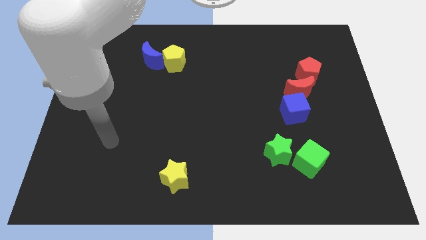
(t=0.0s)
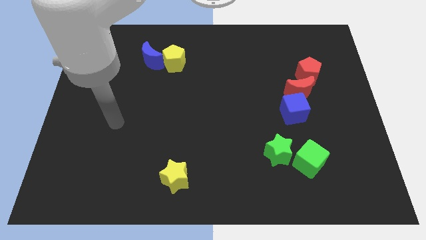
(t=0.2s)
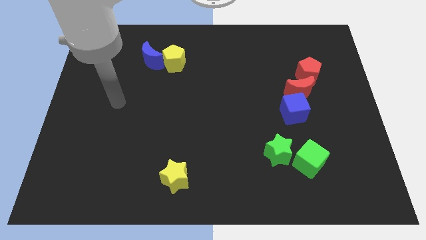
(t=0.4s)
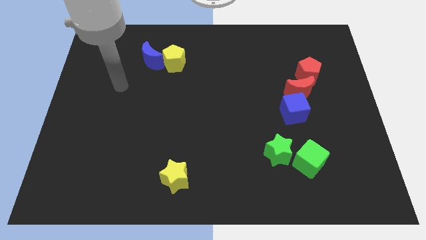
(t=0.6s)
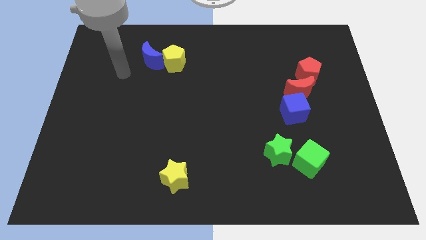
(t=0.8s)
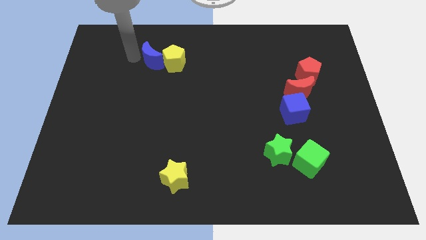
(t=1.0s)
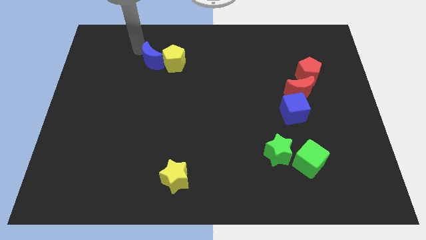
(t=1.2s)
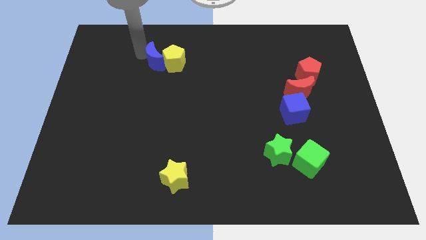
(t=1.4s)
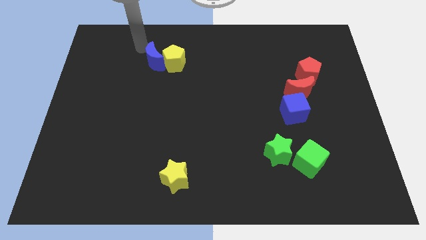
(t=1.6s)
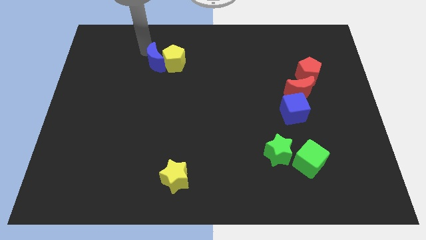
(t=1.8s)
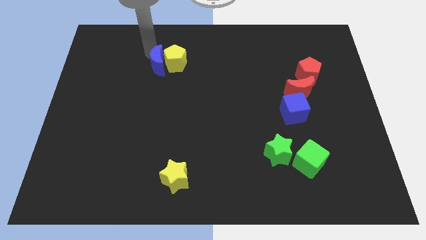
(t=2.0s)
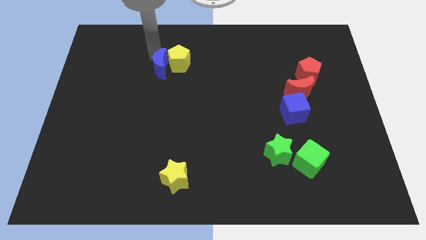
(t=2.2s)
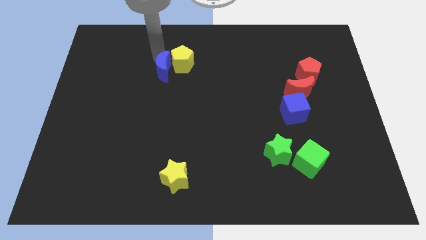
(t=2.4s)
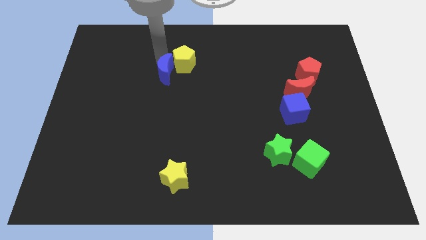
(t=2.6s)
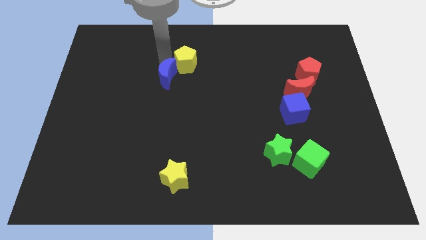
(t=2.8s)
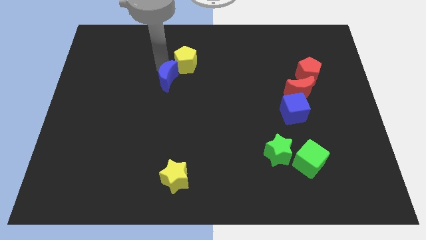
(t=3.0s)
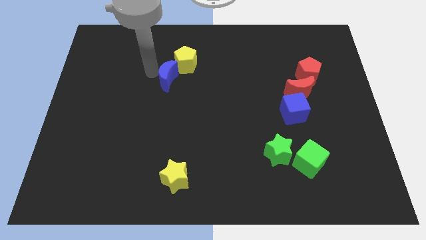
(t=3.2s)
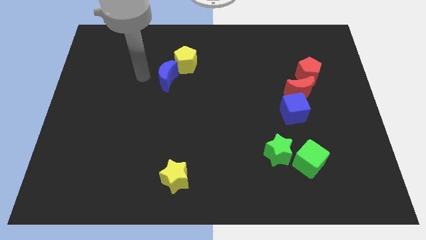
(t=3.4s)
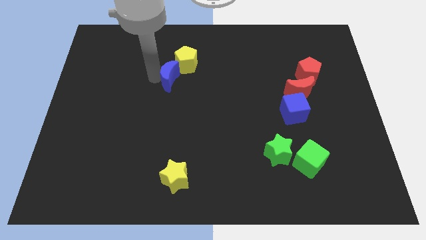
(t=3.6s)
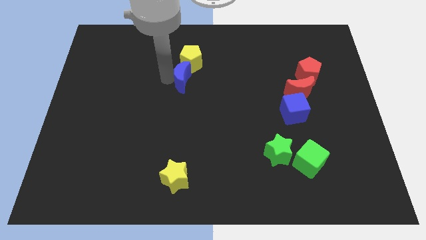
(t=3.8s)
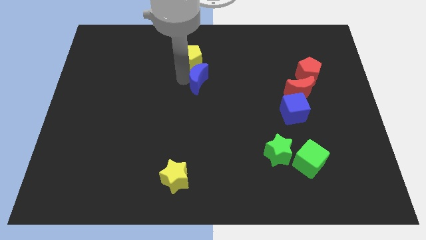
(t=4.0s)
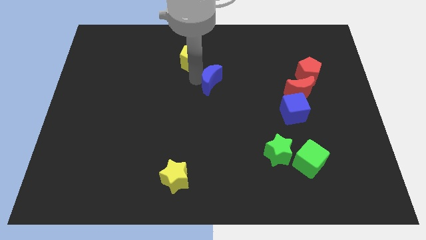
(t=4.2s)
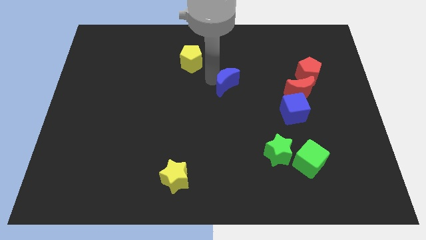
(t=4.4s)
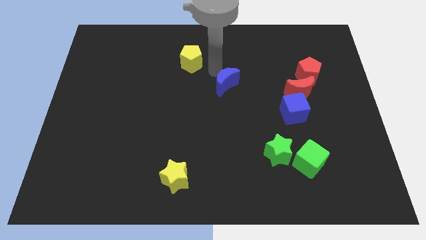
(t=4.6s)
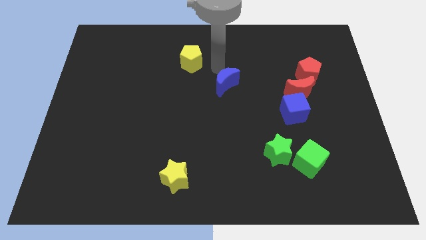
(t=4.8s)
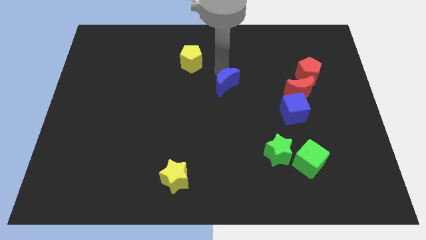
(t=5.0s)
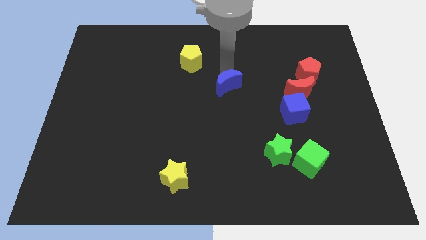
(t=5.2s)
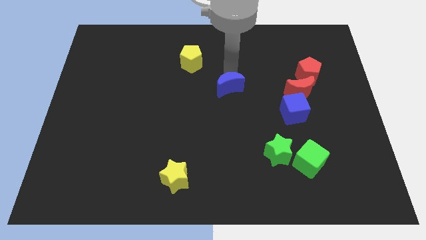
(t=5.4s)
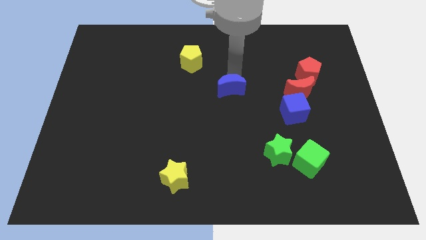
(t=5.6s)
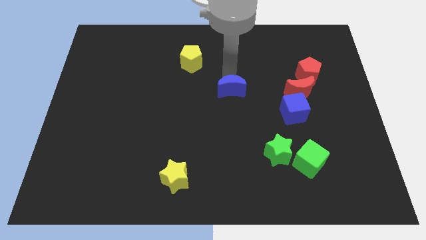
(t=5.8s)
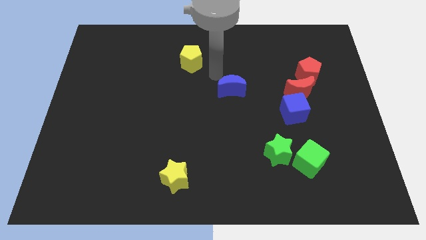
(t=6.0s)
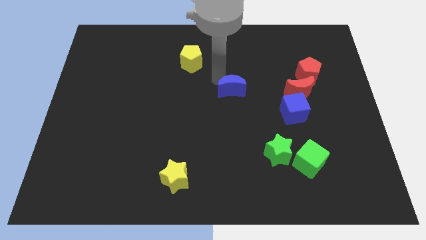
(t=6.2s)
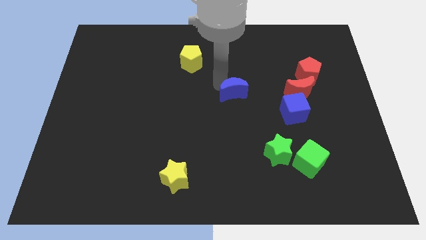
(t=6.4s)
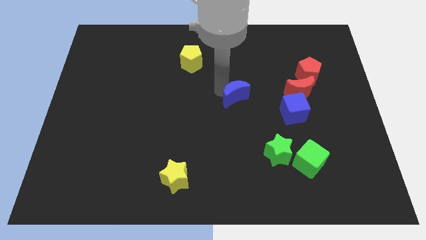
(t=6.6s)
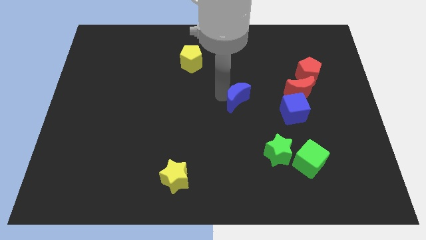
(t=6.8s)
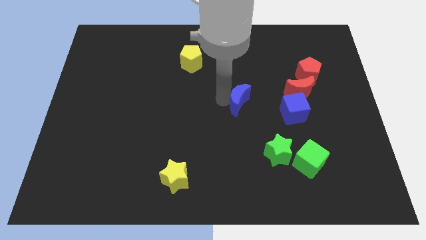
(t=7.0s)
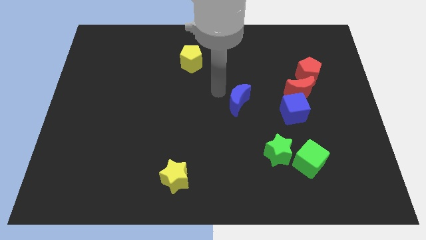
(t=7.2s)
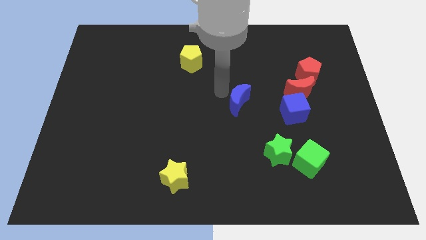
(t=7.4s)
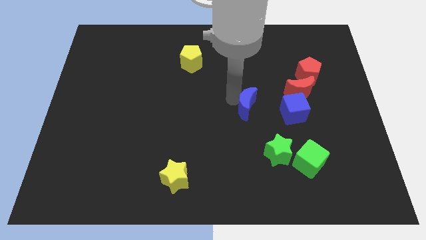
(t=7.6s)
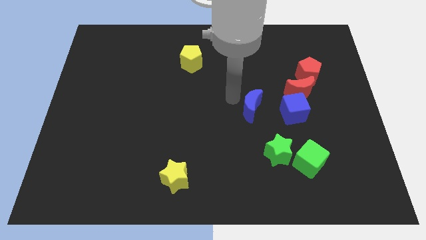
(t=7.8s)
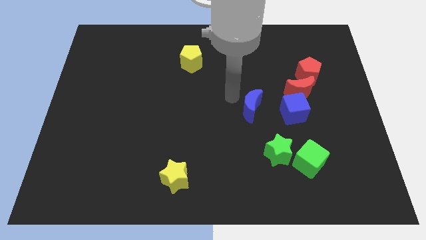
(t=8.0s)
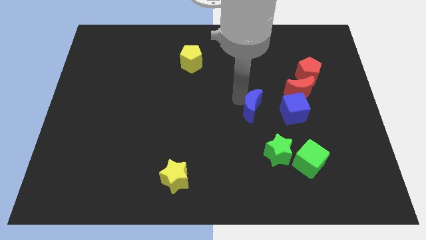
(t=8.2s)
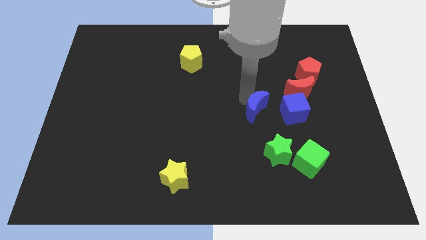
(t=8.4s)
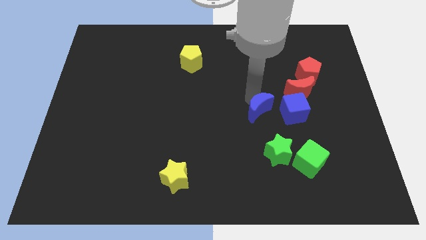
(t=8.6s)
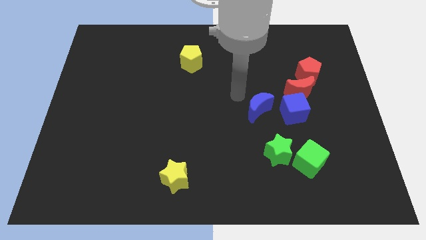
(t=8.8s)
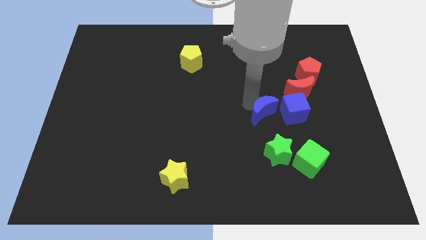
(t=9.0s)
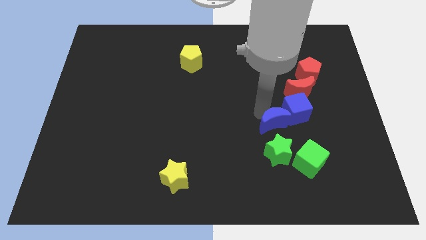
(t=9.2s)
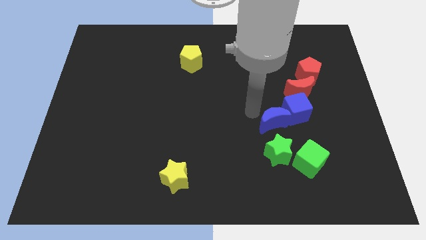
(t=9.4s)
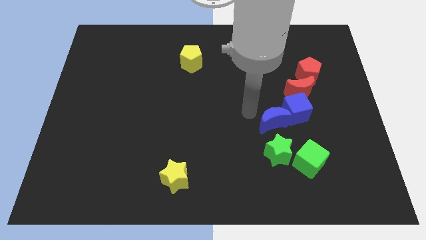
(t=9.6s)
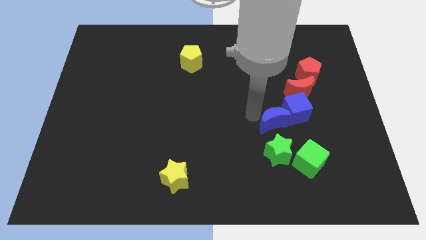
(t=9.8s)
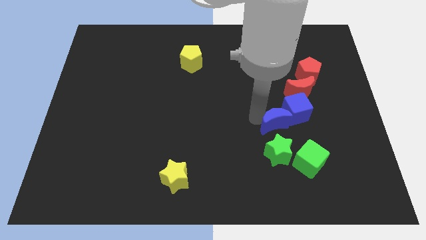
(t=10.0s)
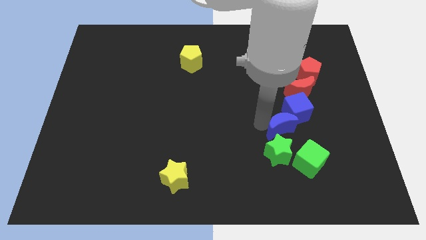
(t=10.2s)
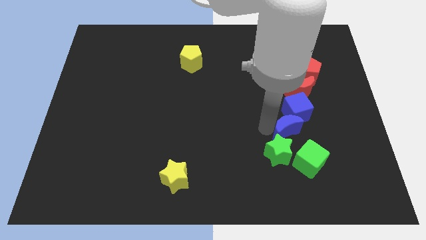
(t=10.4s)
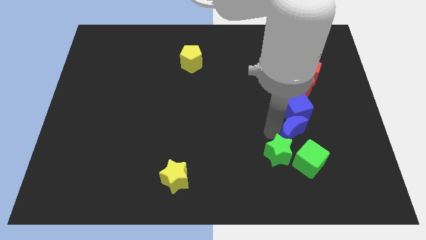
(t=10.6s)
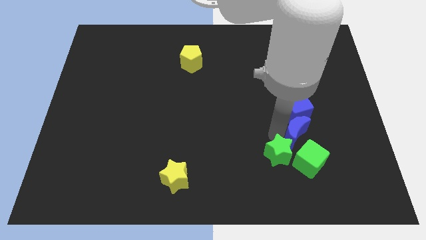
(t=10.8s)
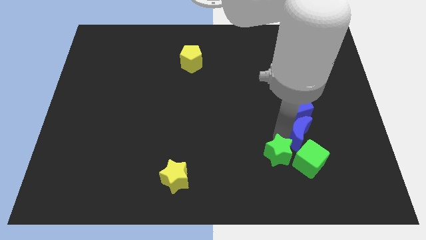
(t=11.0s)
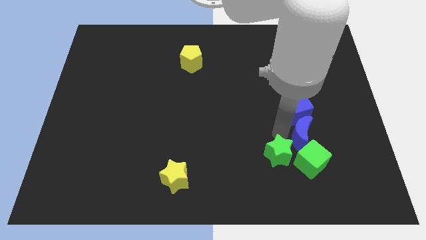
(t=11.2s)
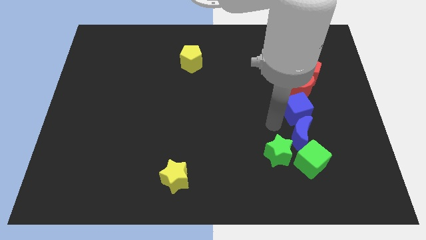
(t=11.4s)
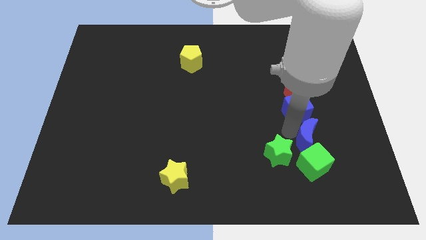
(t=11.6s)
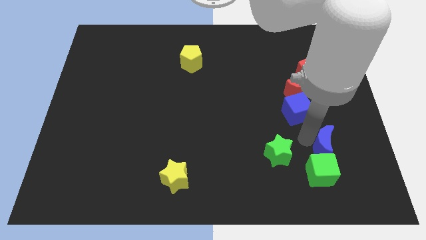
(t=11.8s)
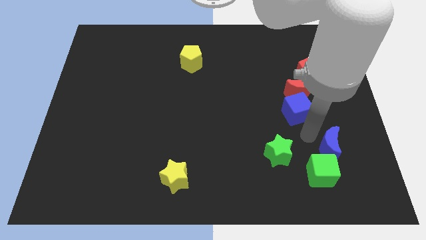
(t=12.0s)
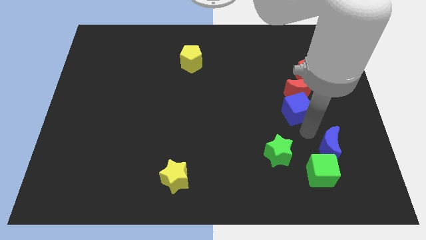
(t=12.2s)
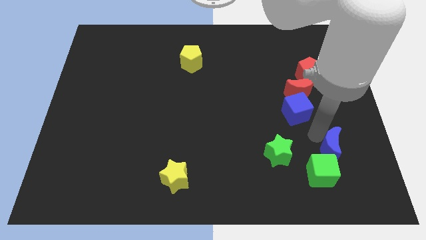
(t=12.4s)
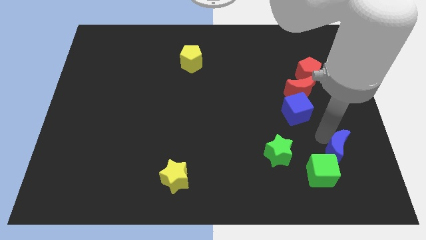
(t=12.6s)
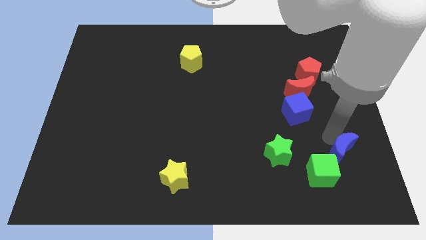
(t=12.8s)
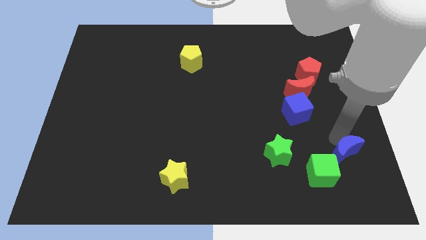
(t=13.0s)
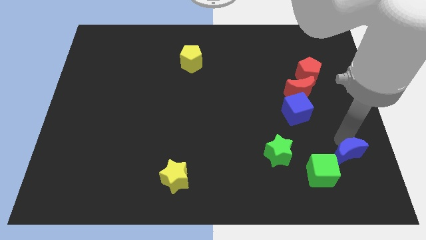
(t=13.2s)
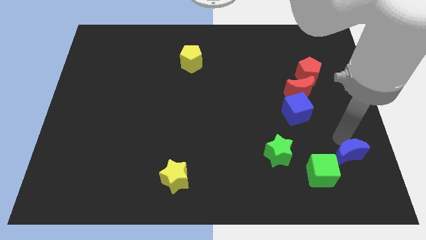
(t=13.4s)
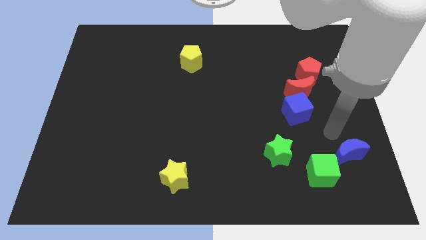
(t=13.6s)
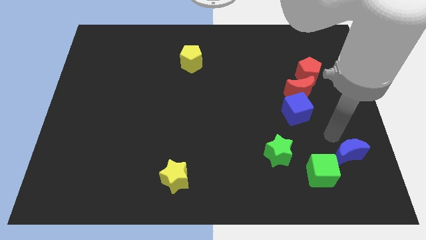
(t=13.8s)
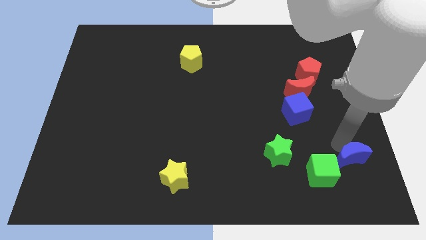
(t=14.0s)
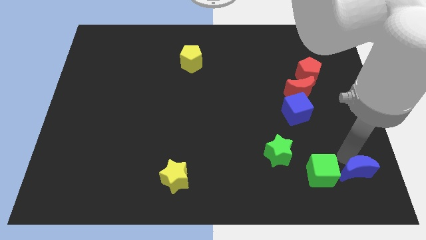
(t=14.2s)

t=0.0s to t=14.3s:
put the blue moon to the lower right corner
